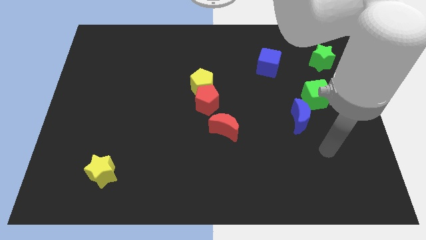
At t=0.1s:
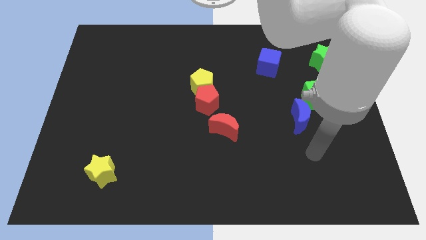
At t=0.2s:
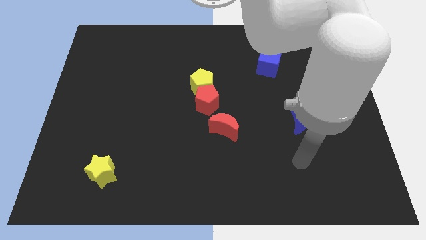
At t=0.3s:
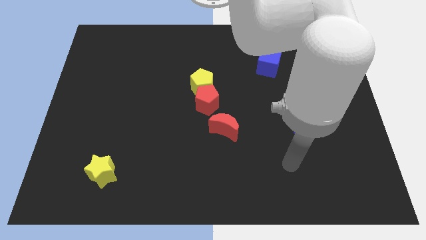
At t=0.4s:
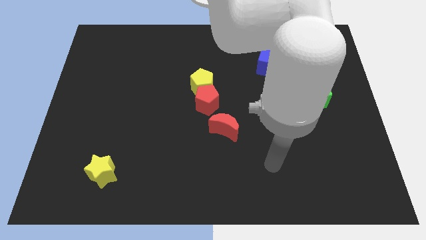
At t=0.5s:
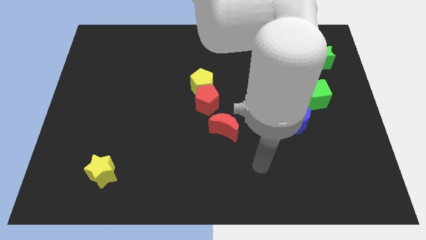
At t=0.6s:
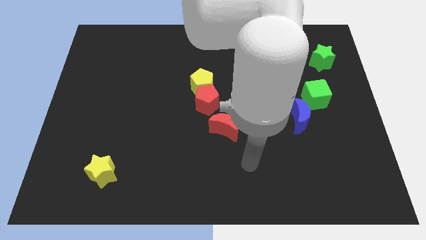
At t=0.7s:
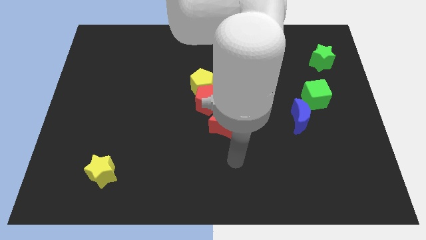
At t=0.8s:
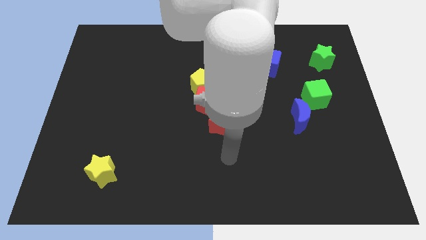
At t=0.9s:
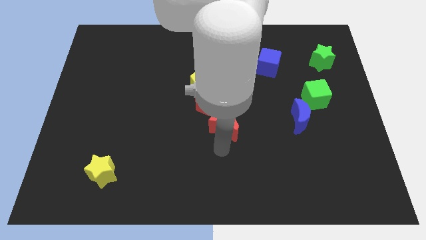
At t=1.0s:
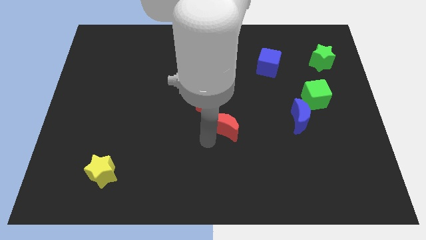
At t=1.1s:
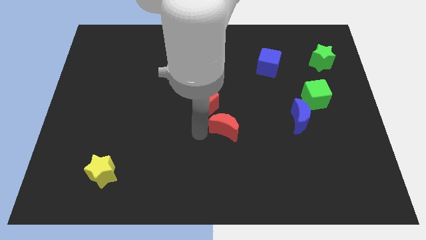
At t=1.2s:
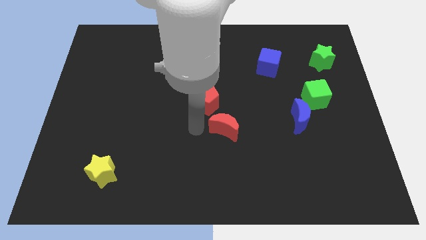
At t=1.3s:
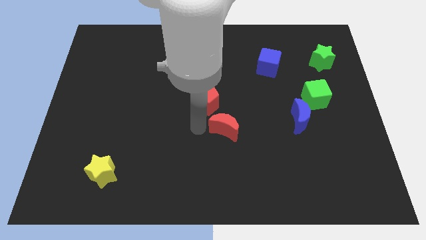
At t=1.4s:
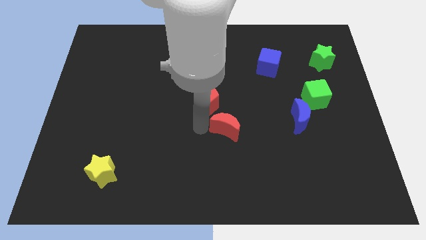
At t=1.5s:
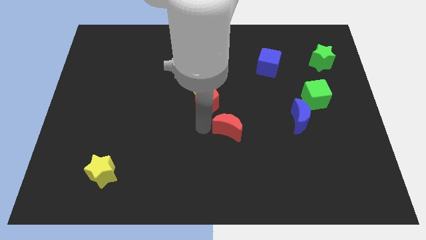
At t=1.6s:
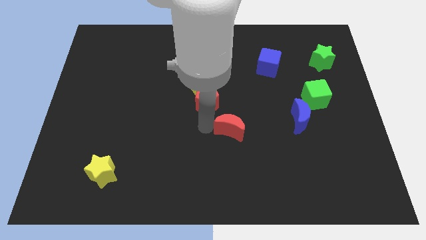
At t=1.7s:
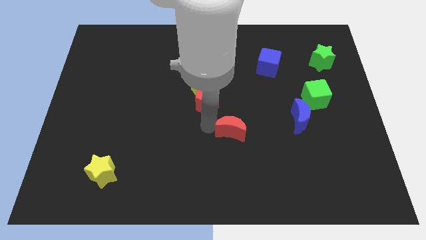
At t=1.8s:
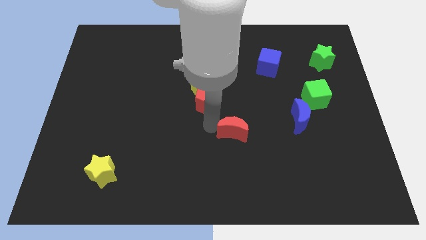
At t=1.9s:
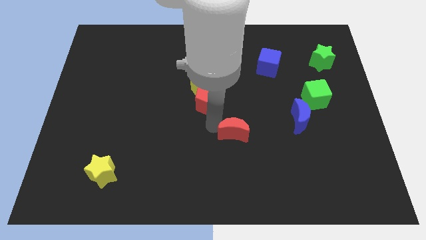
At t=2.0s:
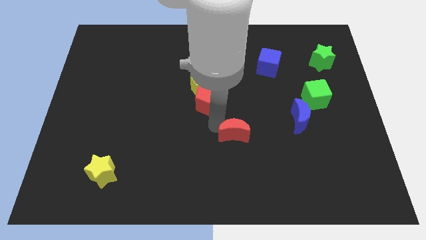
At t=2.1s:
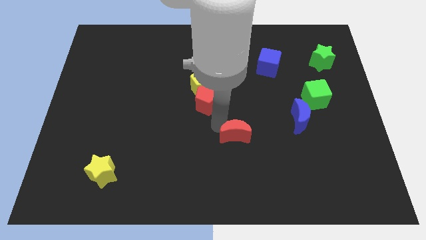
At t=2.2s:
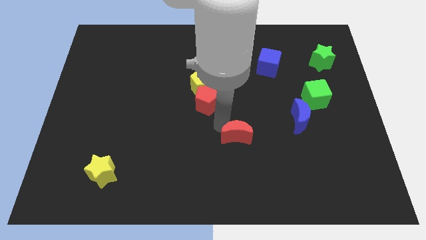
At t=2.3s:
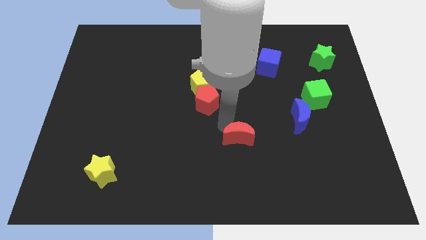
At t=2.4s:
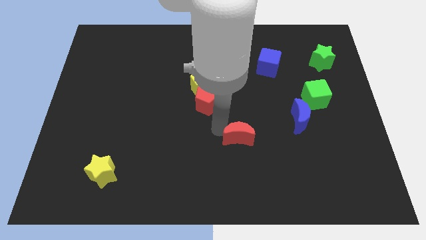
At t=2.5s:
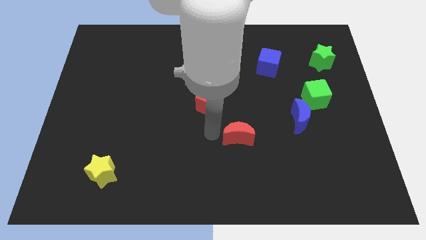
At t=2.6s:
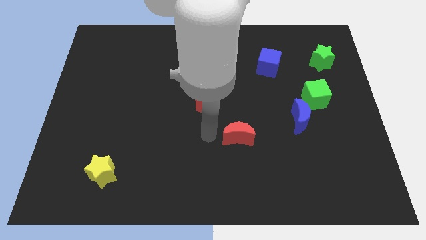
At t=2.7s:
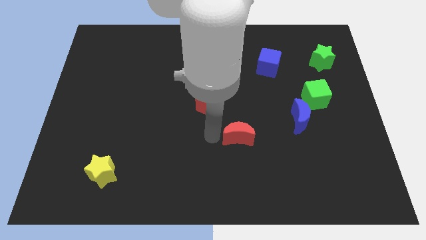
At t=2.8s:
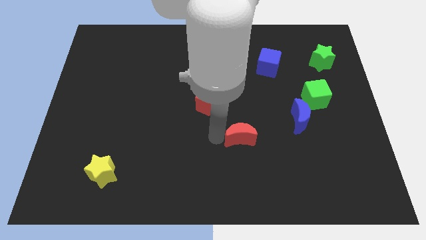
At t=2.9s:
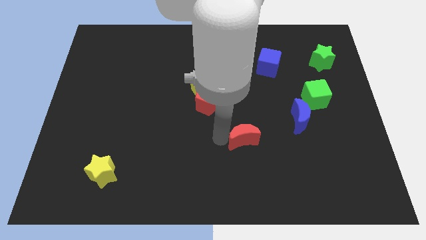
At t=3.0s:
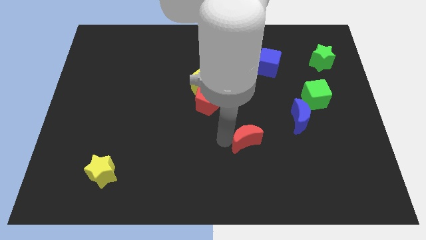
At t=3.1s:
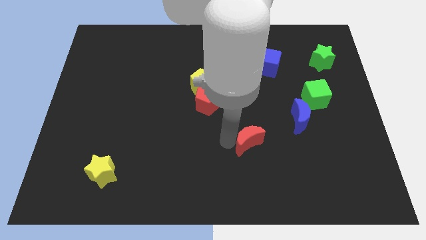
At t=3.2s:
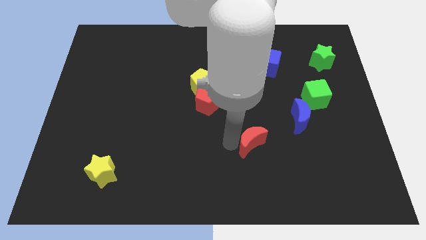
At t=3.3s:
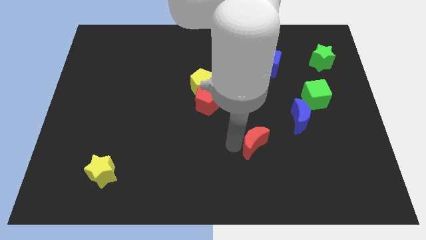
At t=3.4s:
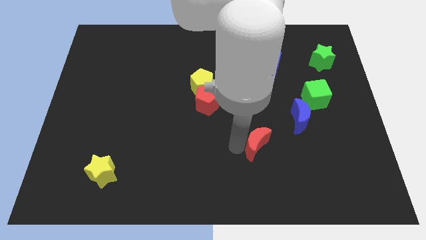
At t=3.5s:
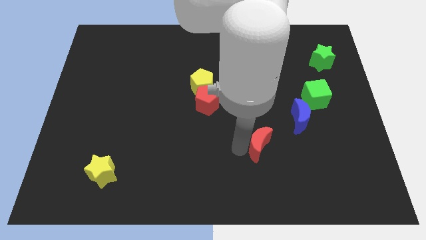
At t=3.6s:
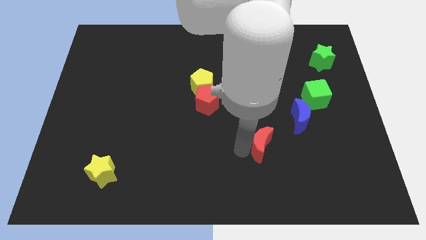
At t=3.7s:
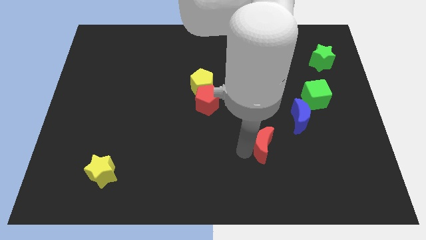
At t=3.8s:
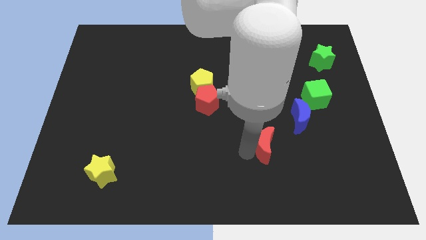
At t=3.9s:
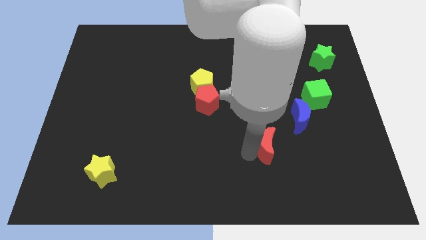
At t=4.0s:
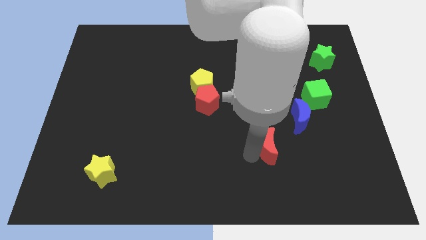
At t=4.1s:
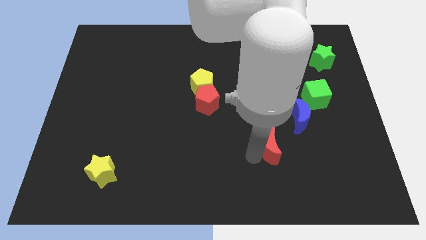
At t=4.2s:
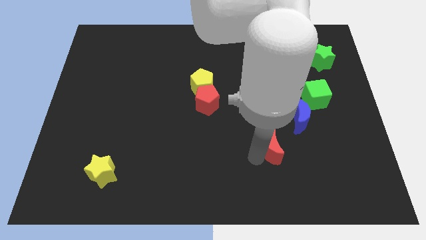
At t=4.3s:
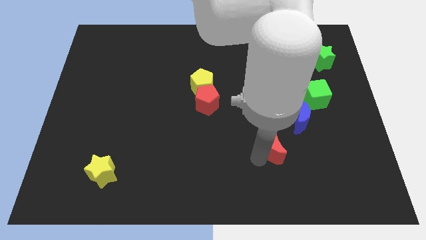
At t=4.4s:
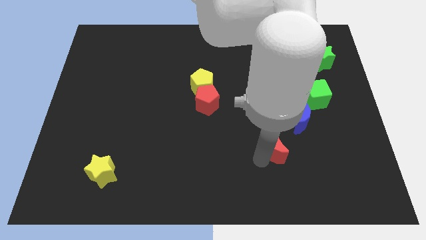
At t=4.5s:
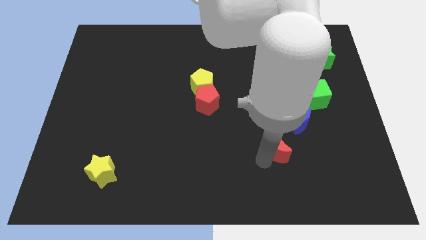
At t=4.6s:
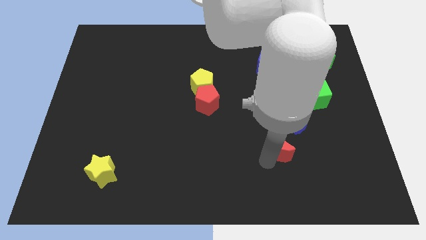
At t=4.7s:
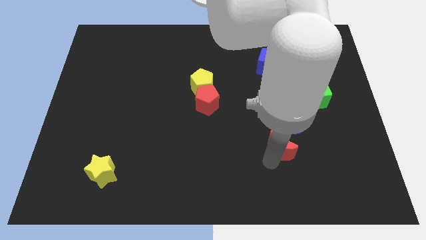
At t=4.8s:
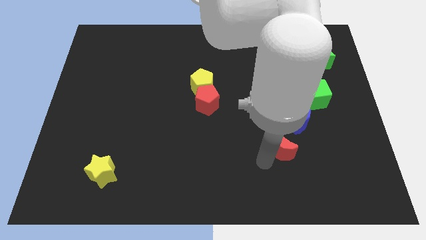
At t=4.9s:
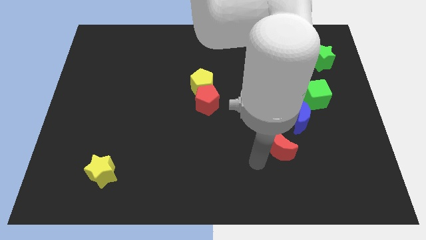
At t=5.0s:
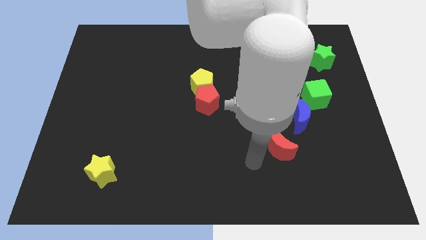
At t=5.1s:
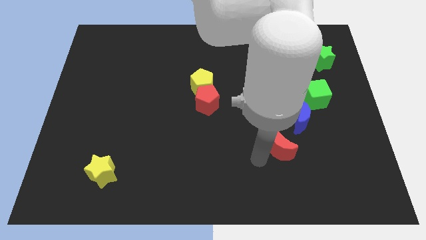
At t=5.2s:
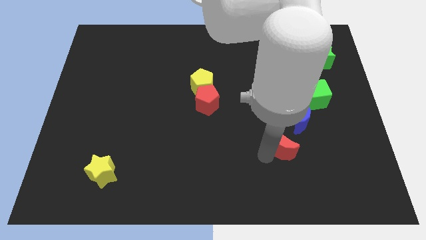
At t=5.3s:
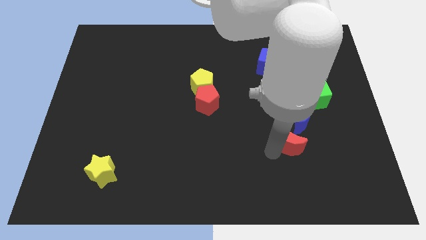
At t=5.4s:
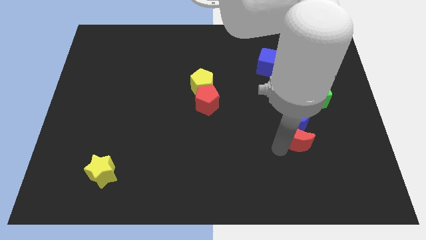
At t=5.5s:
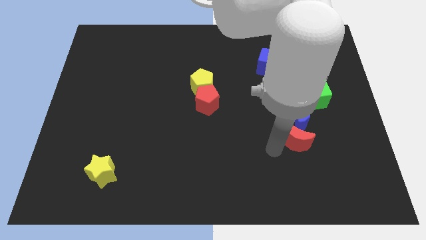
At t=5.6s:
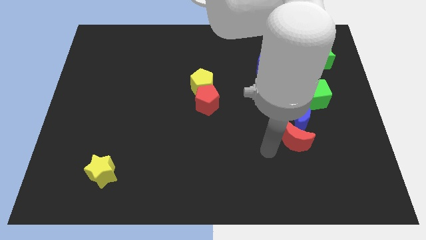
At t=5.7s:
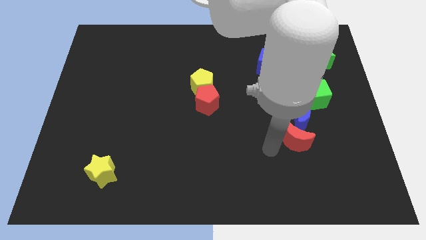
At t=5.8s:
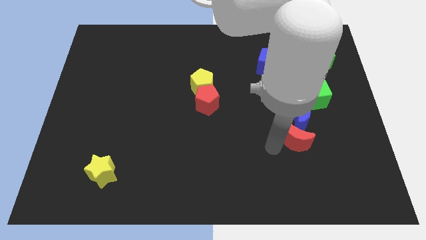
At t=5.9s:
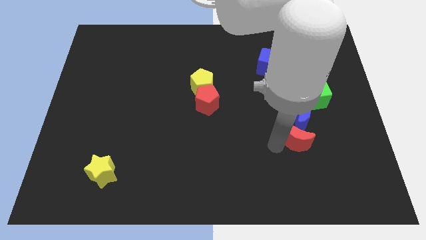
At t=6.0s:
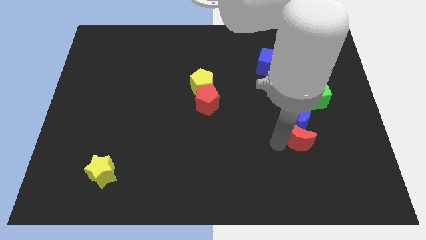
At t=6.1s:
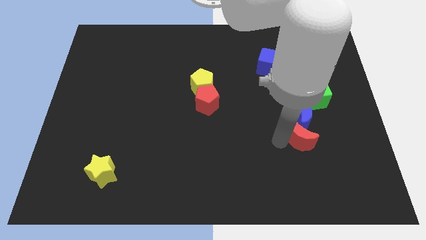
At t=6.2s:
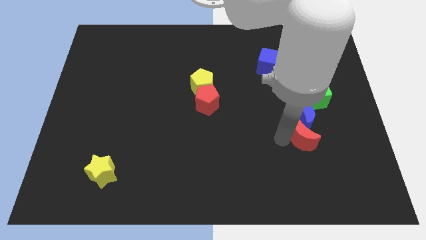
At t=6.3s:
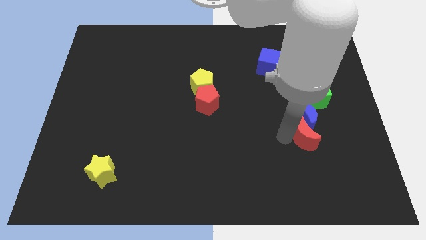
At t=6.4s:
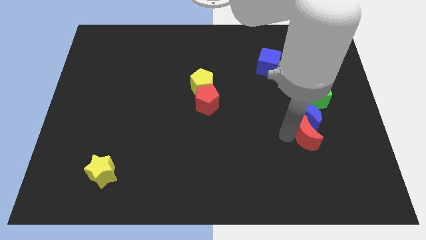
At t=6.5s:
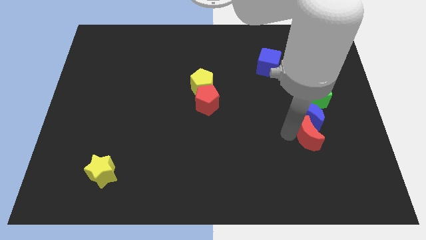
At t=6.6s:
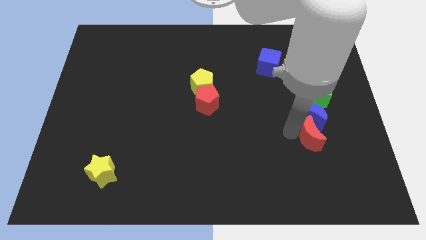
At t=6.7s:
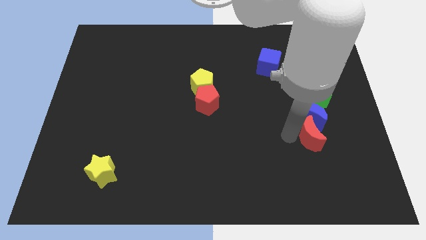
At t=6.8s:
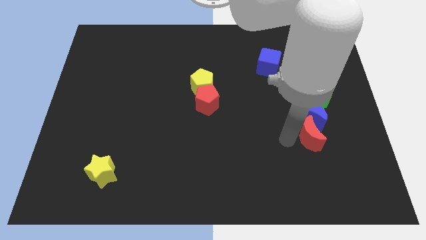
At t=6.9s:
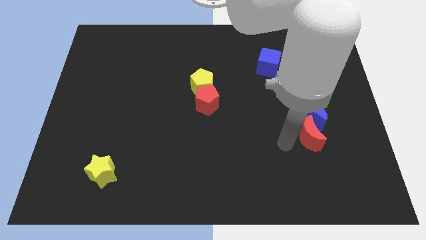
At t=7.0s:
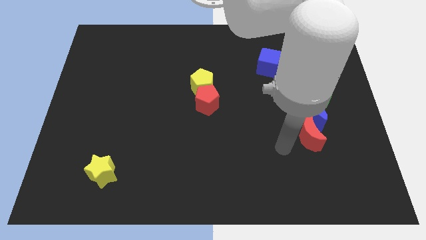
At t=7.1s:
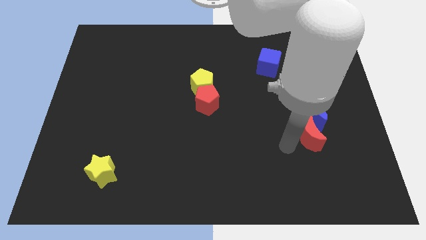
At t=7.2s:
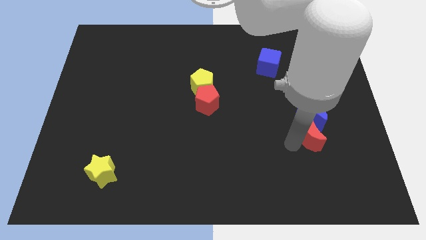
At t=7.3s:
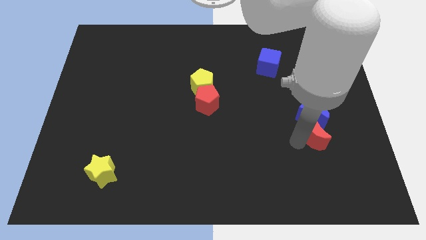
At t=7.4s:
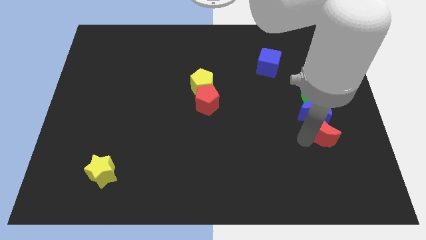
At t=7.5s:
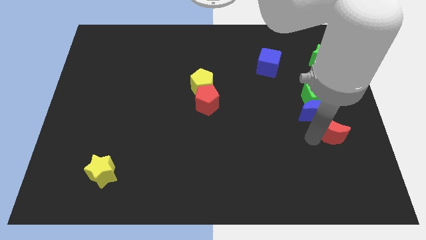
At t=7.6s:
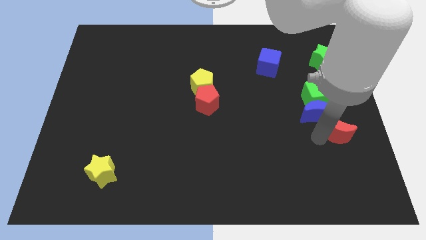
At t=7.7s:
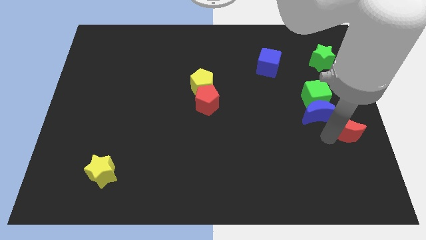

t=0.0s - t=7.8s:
slide the red moon to the center right

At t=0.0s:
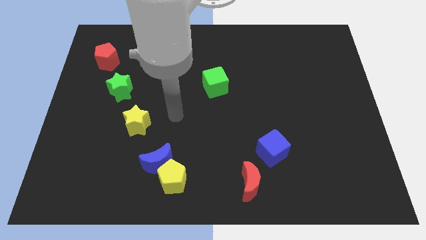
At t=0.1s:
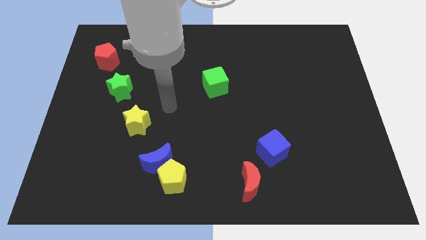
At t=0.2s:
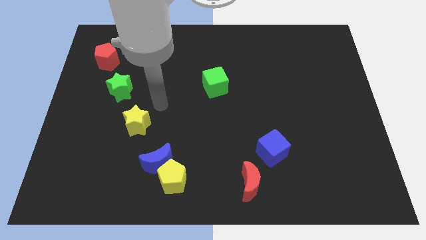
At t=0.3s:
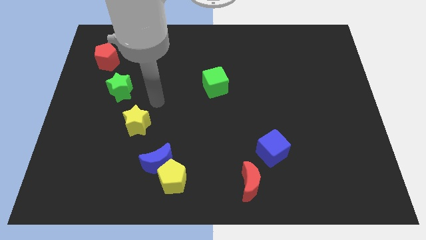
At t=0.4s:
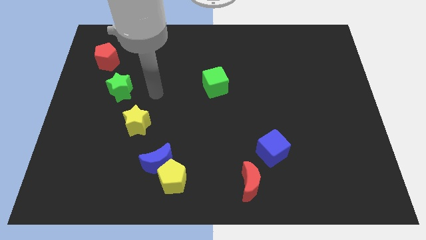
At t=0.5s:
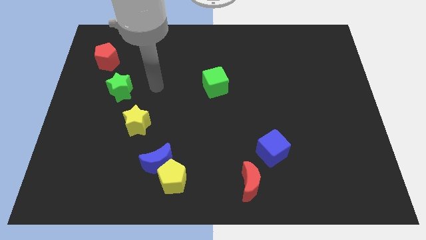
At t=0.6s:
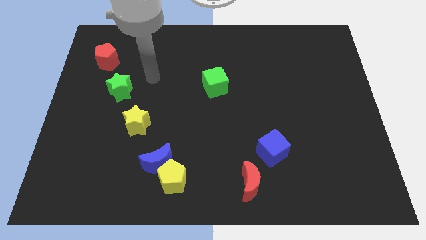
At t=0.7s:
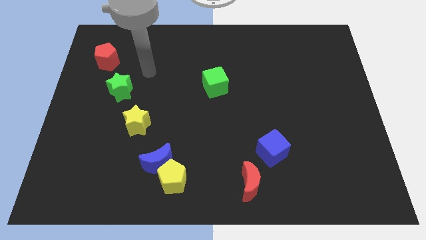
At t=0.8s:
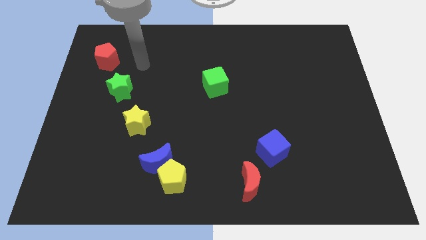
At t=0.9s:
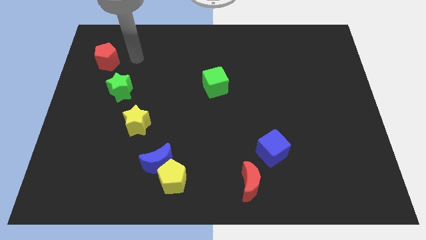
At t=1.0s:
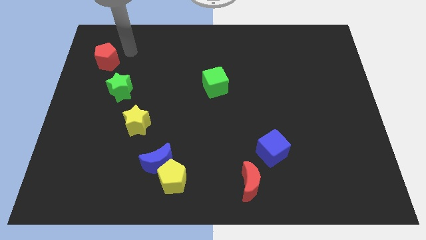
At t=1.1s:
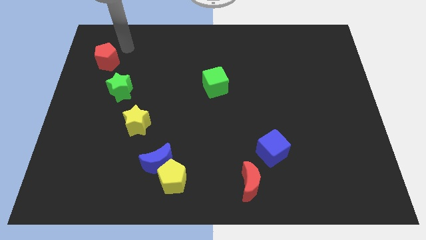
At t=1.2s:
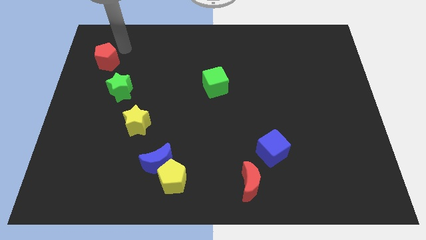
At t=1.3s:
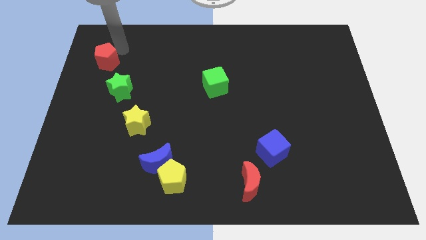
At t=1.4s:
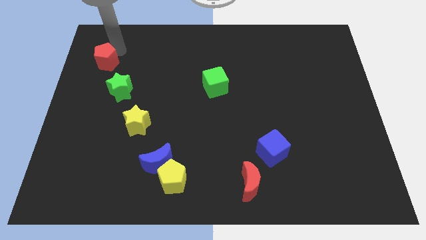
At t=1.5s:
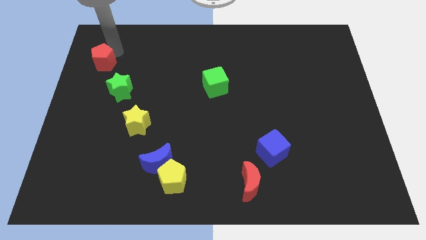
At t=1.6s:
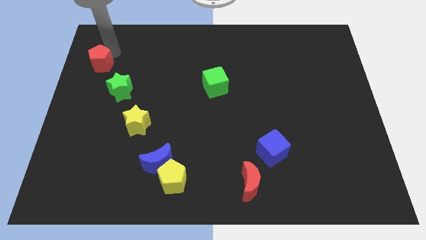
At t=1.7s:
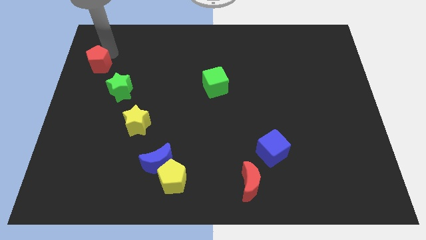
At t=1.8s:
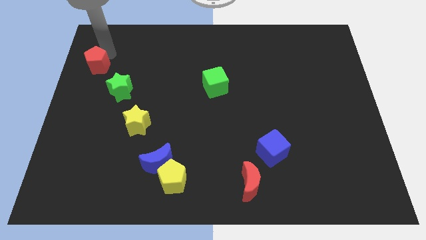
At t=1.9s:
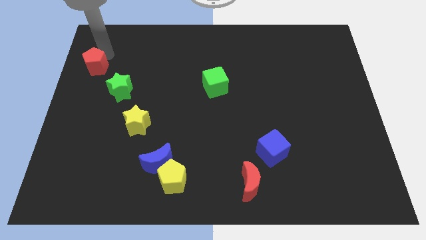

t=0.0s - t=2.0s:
move the red pentagon to the center left
